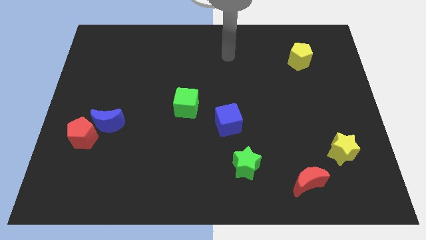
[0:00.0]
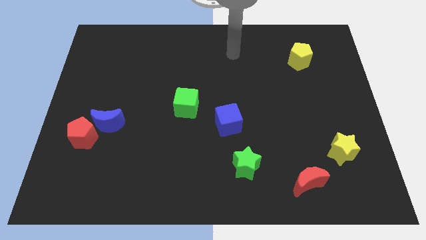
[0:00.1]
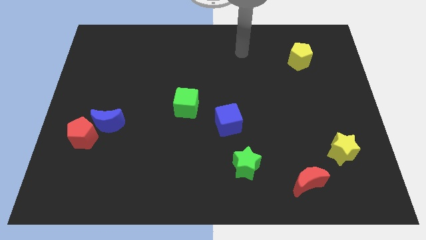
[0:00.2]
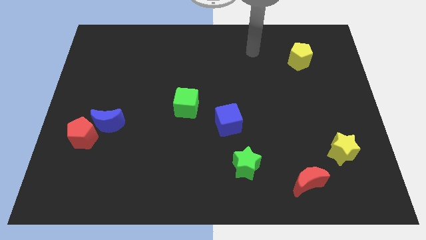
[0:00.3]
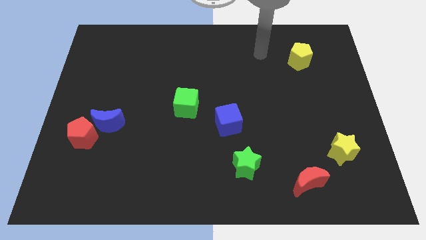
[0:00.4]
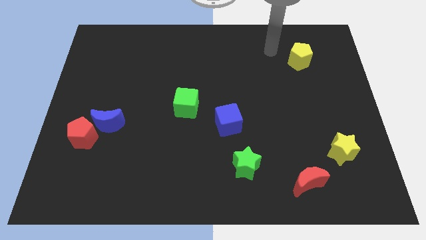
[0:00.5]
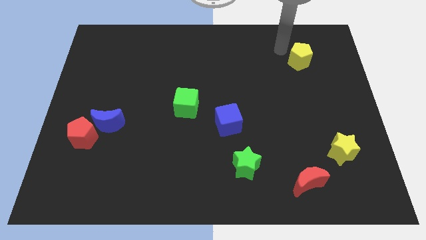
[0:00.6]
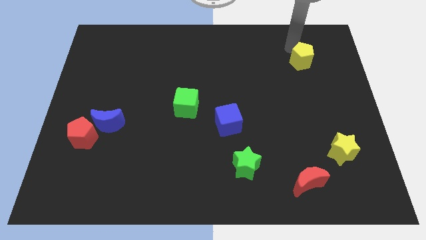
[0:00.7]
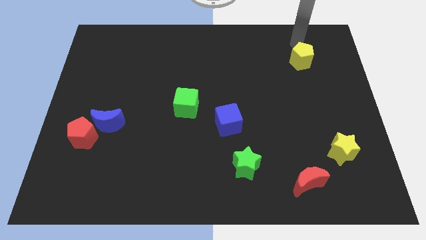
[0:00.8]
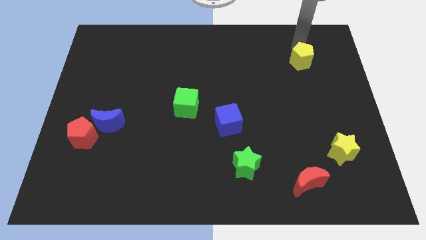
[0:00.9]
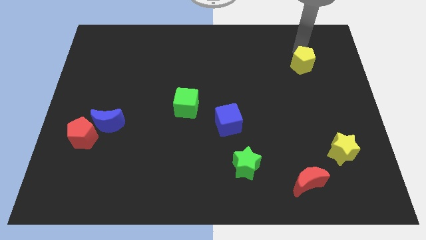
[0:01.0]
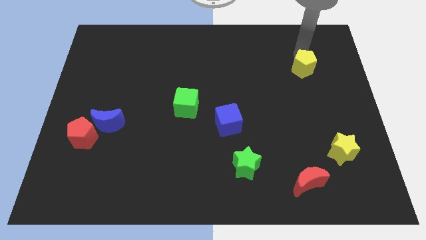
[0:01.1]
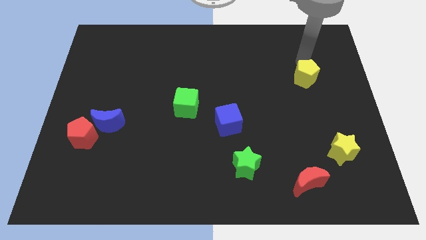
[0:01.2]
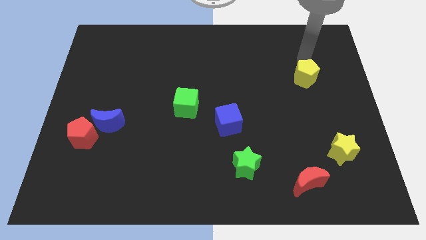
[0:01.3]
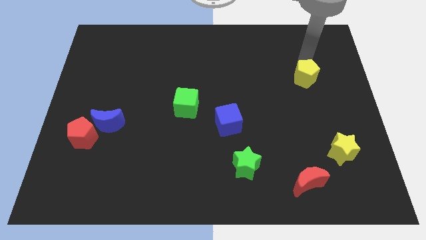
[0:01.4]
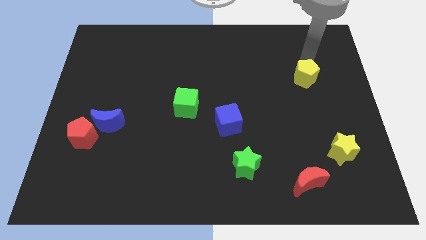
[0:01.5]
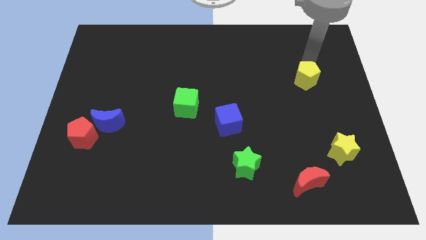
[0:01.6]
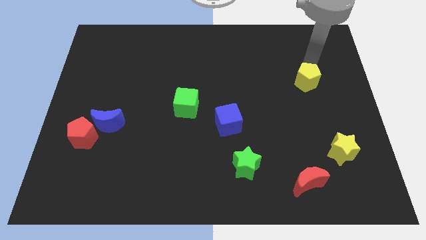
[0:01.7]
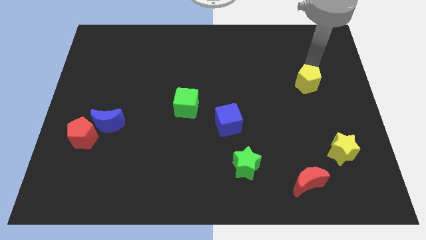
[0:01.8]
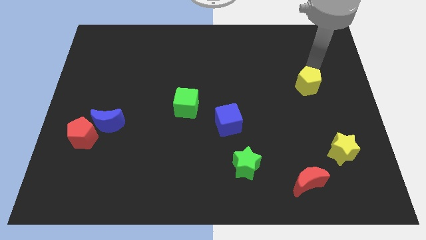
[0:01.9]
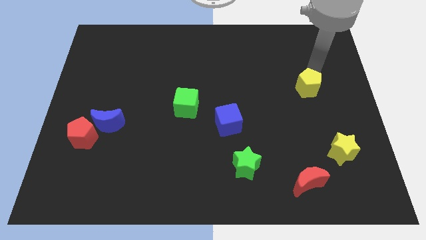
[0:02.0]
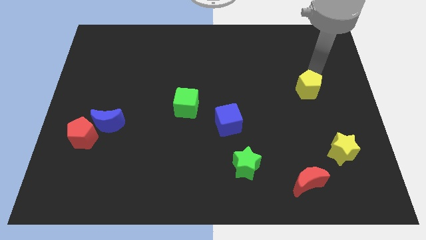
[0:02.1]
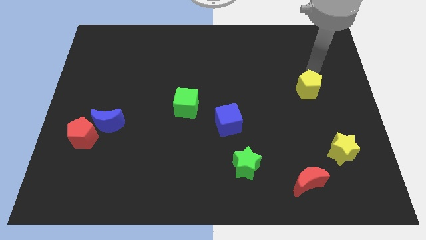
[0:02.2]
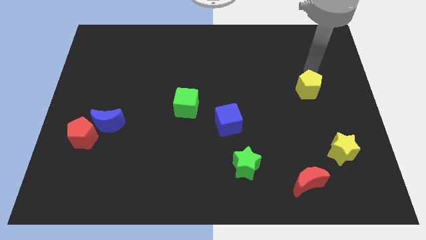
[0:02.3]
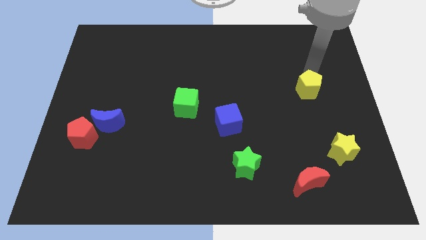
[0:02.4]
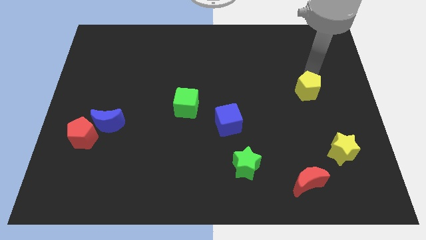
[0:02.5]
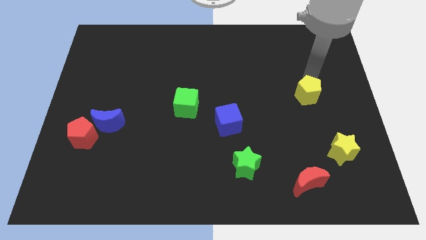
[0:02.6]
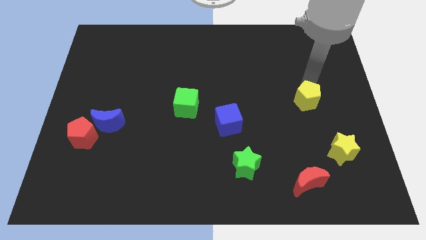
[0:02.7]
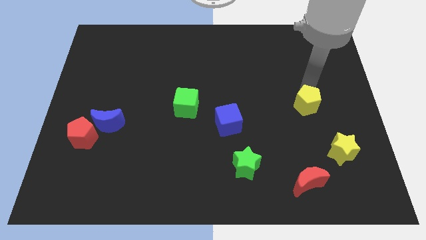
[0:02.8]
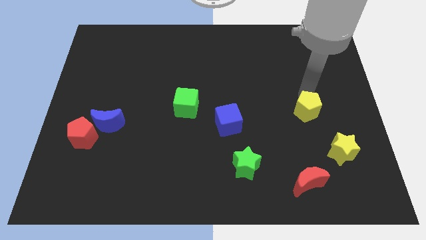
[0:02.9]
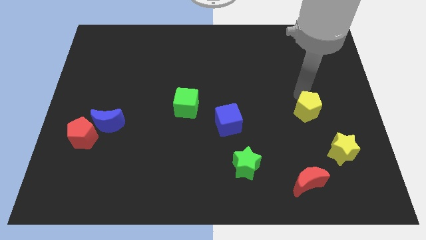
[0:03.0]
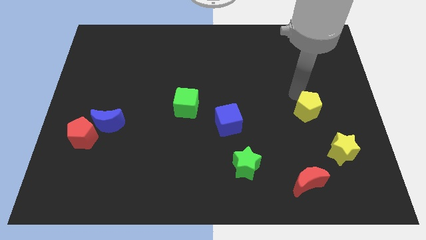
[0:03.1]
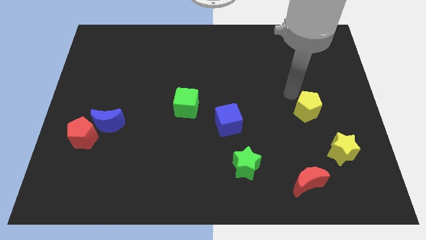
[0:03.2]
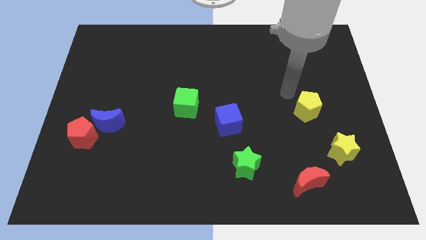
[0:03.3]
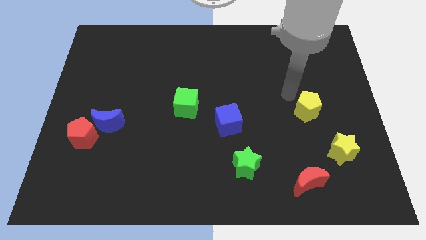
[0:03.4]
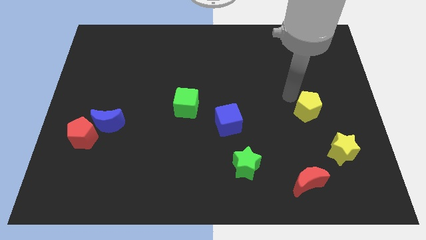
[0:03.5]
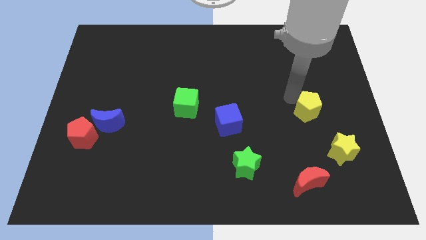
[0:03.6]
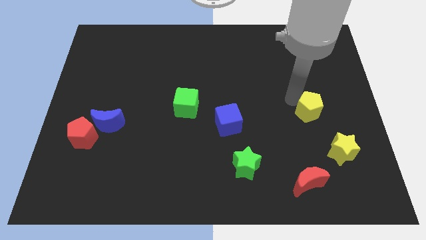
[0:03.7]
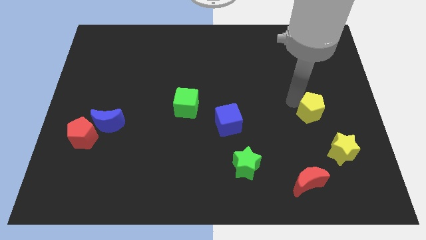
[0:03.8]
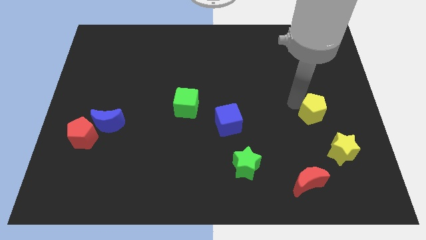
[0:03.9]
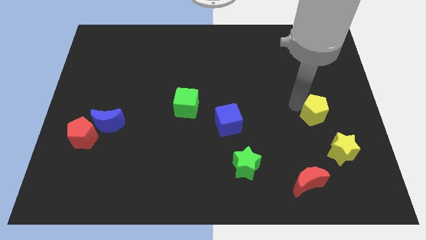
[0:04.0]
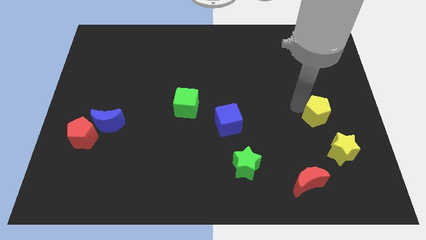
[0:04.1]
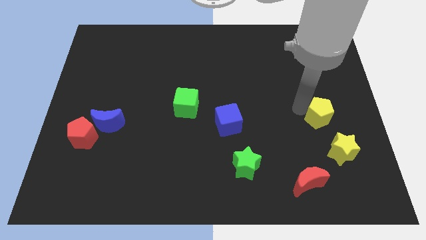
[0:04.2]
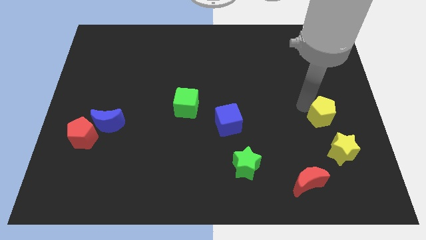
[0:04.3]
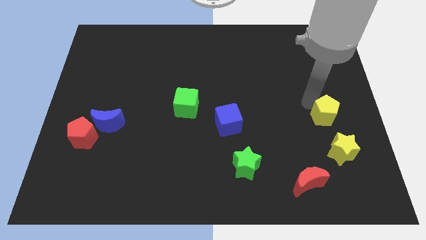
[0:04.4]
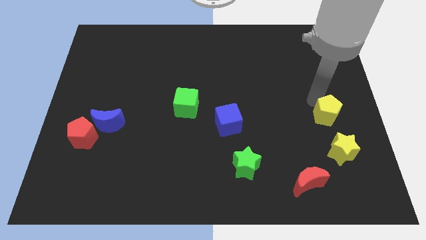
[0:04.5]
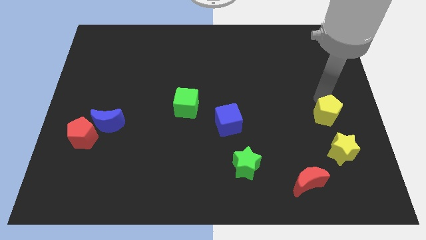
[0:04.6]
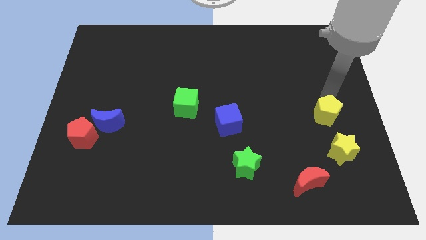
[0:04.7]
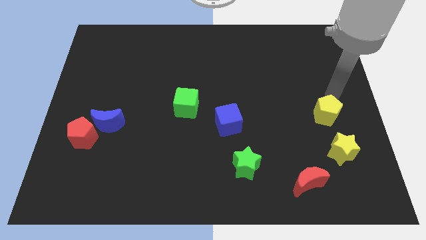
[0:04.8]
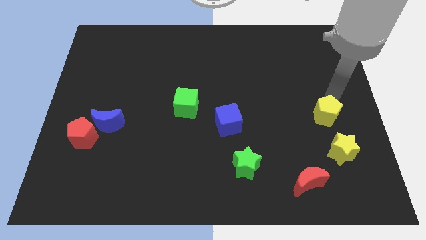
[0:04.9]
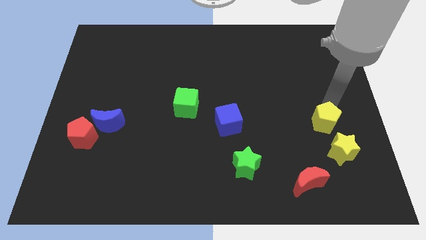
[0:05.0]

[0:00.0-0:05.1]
move the yellow pentagon down

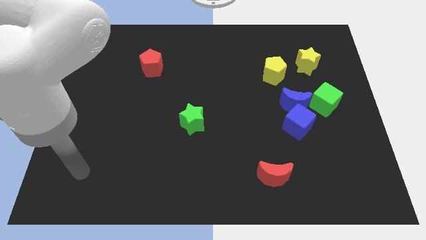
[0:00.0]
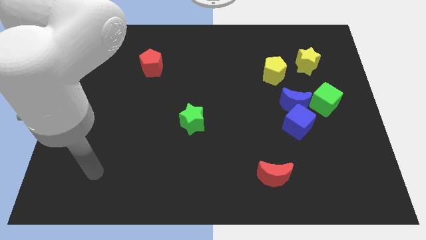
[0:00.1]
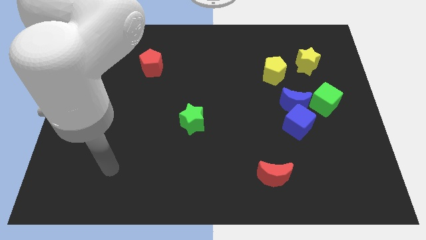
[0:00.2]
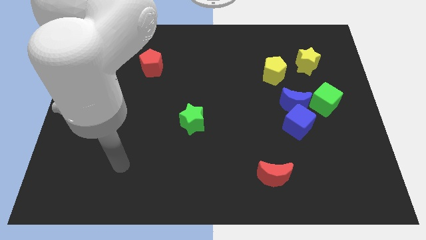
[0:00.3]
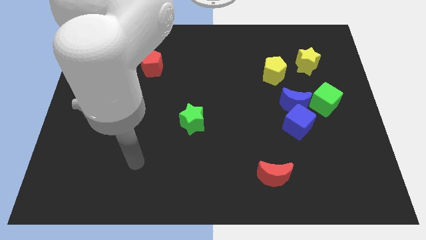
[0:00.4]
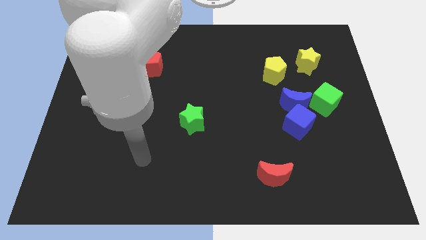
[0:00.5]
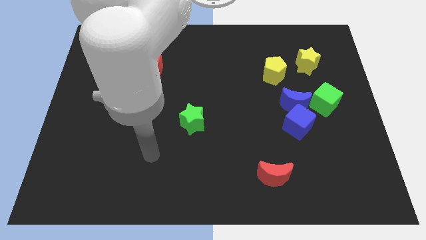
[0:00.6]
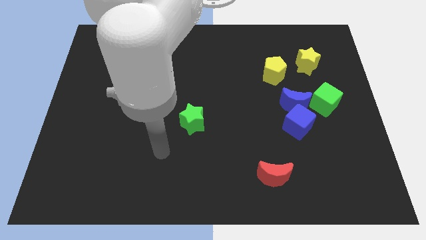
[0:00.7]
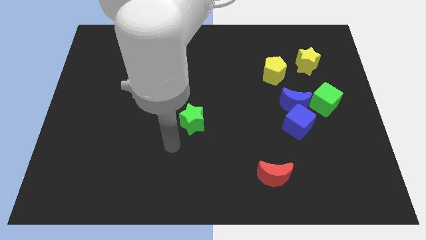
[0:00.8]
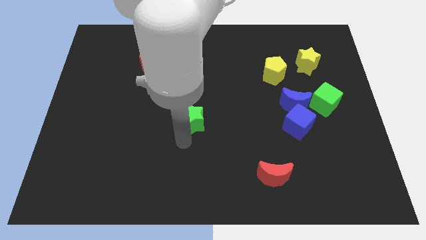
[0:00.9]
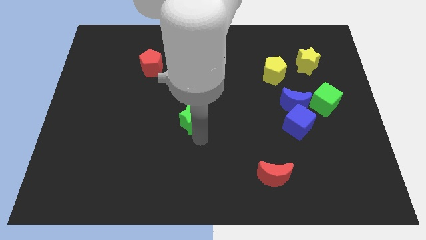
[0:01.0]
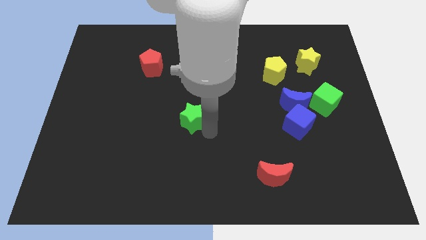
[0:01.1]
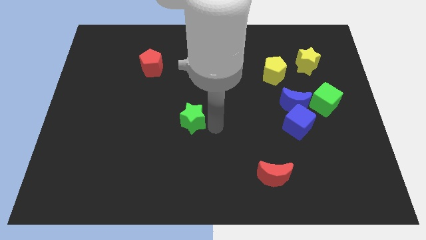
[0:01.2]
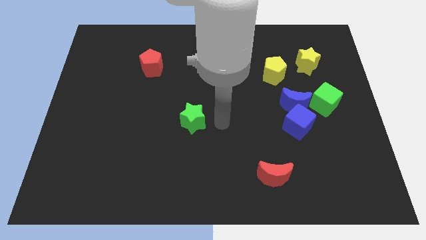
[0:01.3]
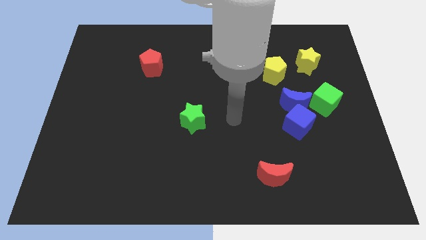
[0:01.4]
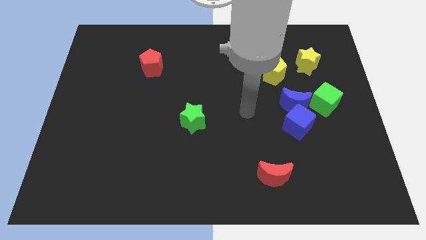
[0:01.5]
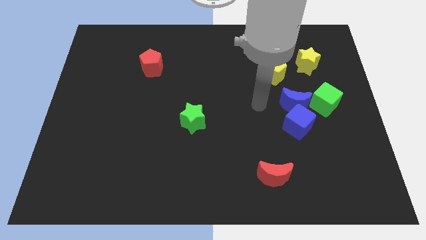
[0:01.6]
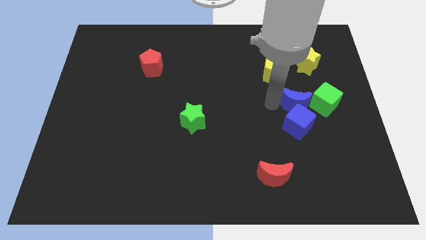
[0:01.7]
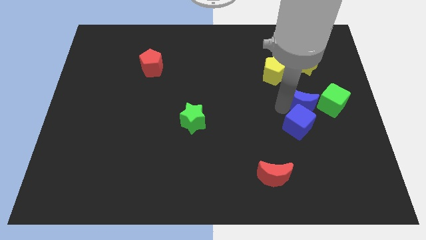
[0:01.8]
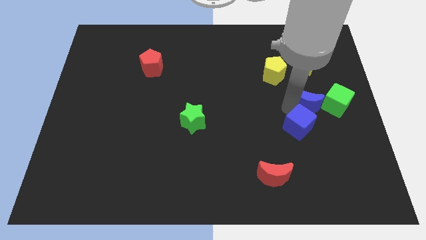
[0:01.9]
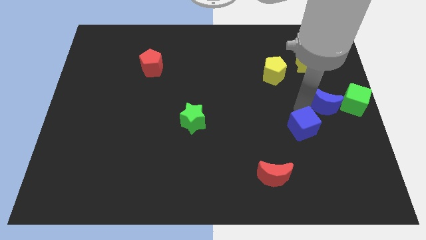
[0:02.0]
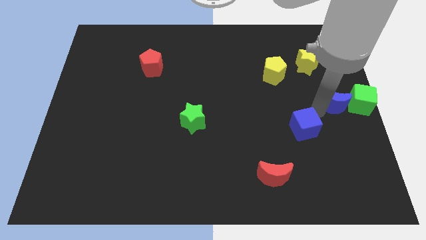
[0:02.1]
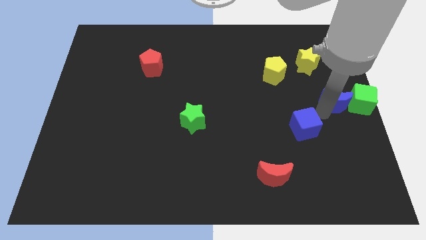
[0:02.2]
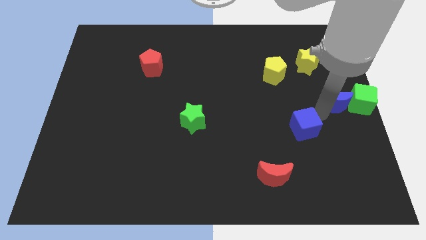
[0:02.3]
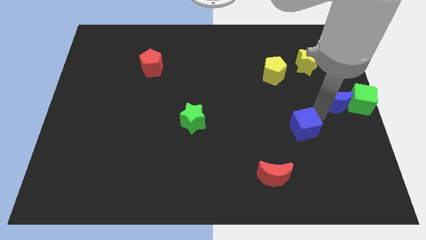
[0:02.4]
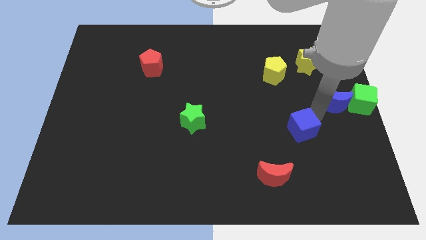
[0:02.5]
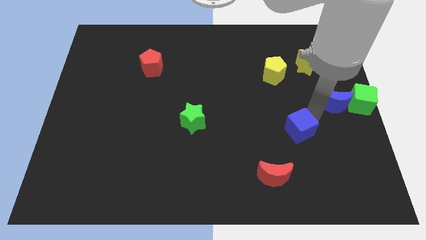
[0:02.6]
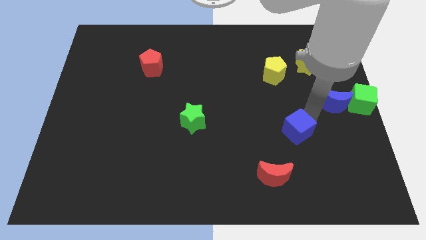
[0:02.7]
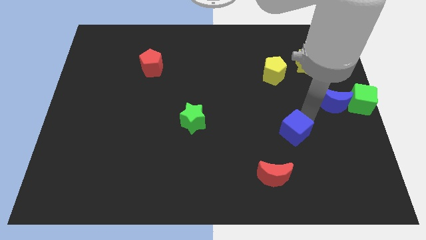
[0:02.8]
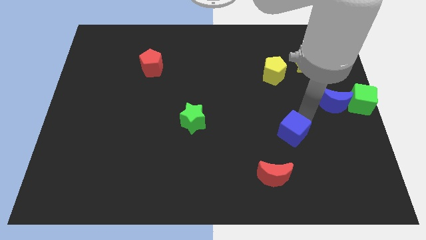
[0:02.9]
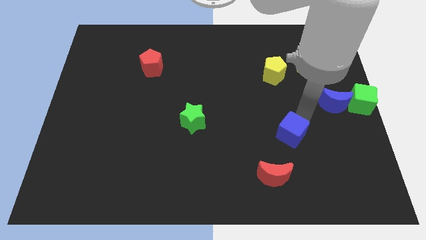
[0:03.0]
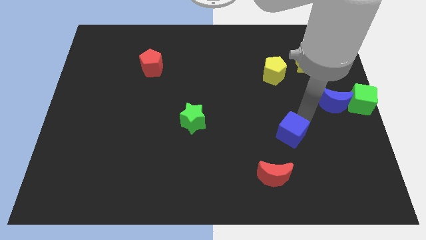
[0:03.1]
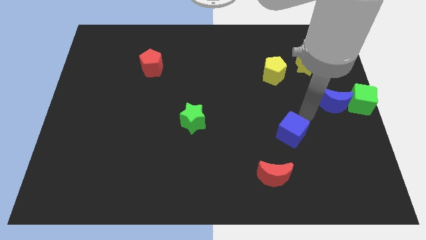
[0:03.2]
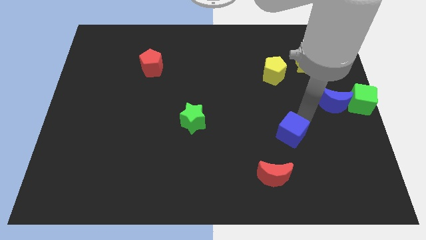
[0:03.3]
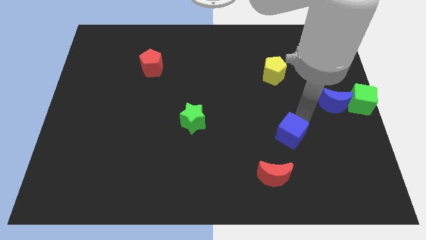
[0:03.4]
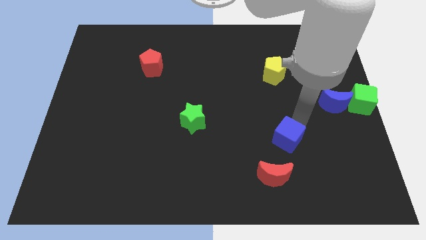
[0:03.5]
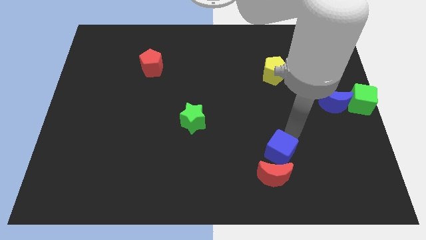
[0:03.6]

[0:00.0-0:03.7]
slide the blue cube a little bit downwards and left diagonally
